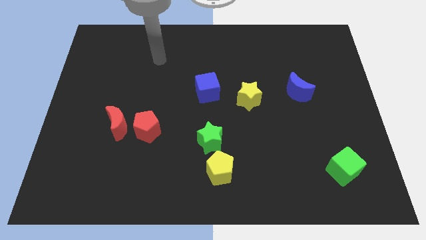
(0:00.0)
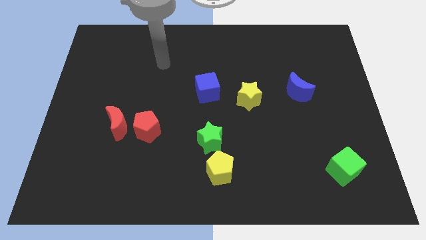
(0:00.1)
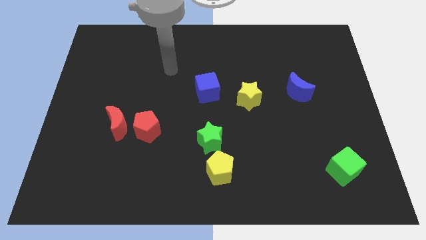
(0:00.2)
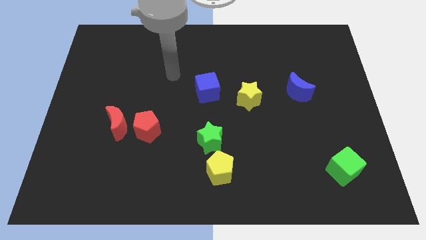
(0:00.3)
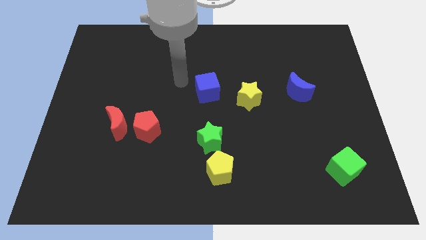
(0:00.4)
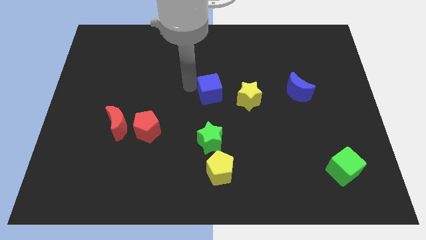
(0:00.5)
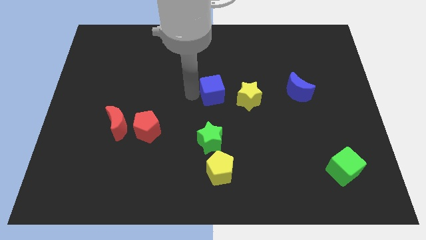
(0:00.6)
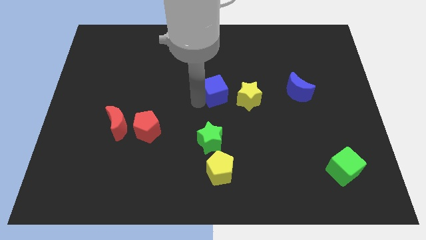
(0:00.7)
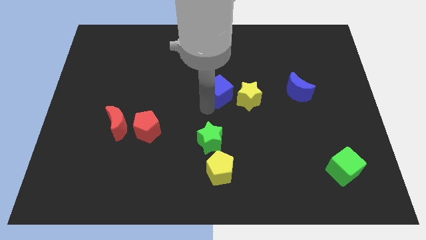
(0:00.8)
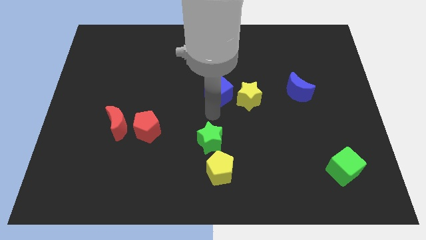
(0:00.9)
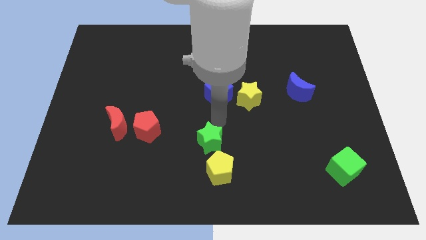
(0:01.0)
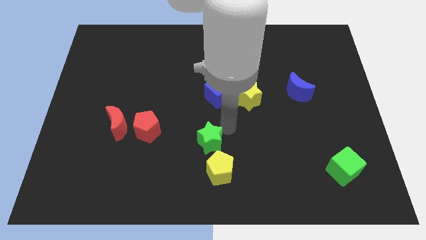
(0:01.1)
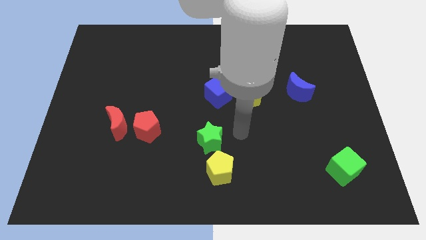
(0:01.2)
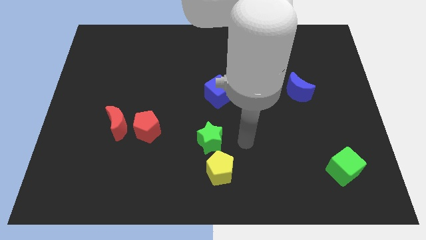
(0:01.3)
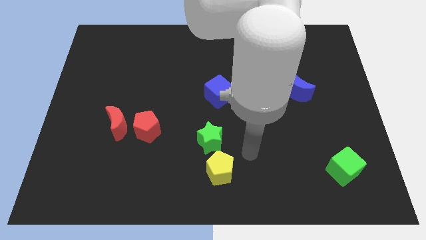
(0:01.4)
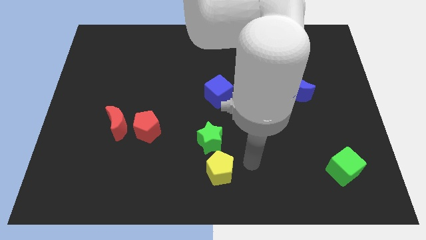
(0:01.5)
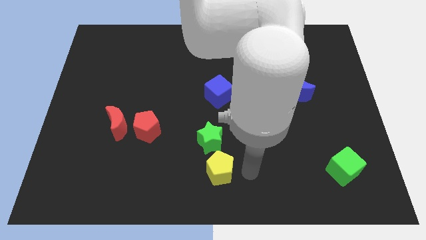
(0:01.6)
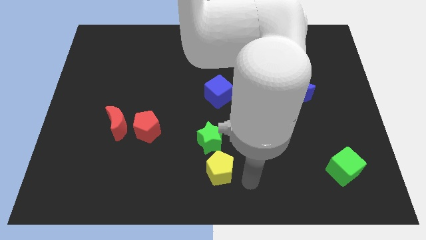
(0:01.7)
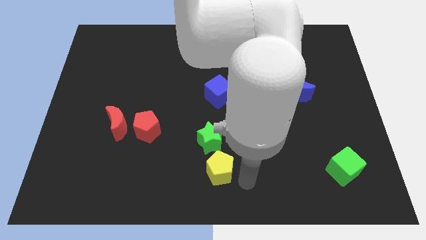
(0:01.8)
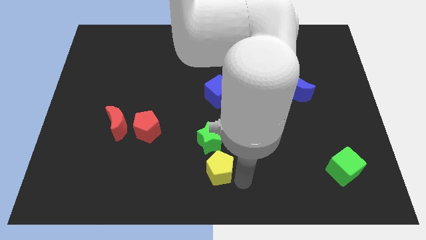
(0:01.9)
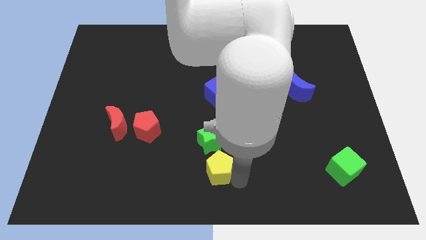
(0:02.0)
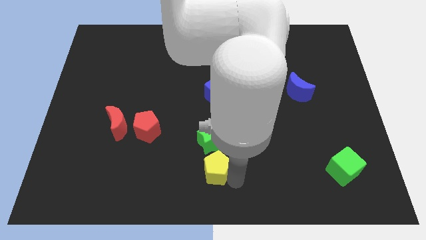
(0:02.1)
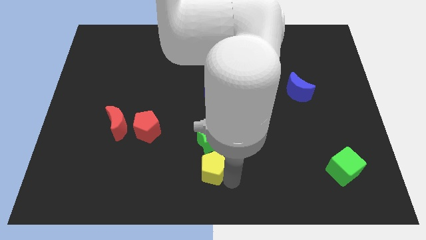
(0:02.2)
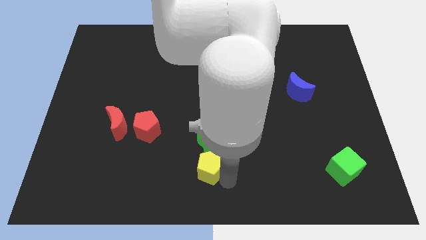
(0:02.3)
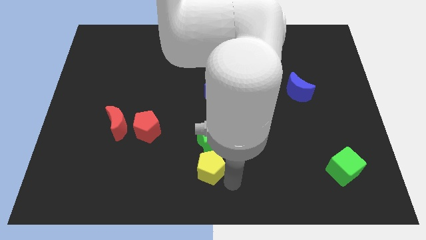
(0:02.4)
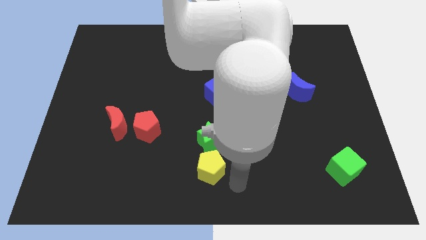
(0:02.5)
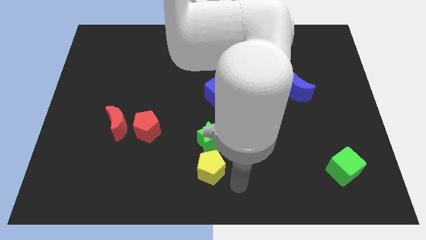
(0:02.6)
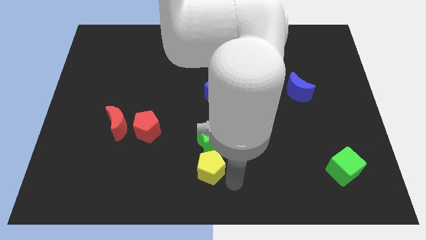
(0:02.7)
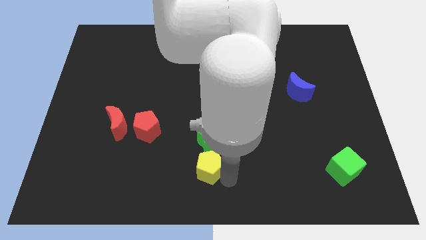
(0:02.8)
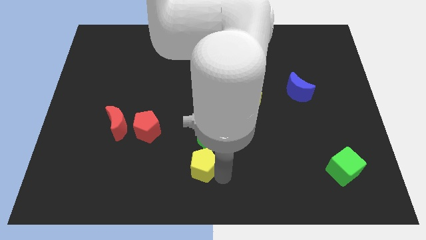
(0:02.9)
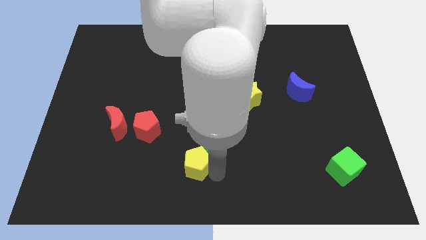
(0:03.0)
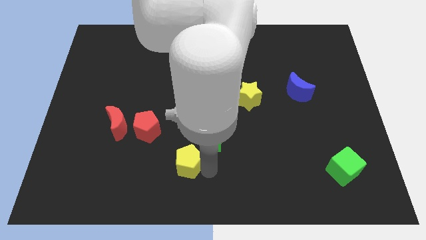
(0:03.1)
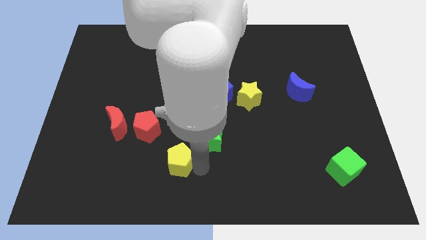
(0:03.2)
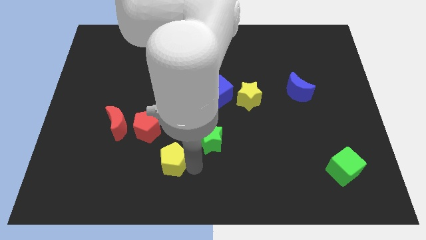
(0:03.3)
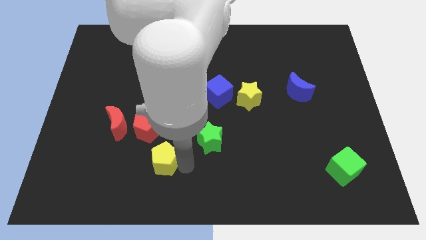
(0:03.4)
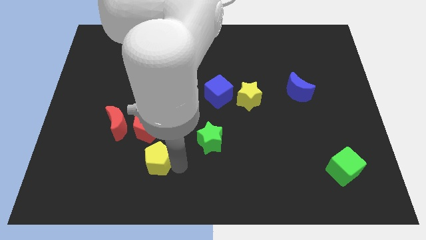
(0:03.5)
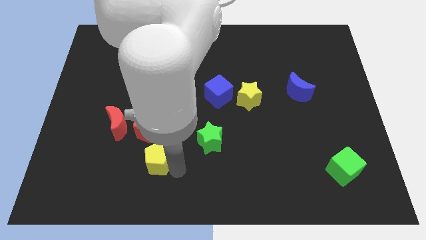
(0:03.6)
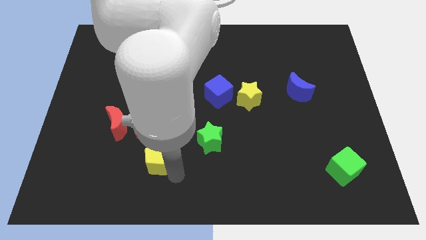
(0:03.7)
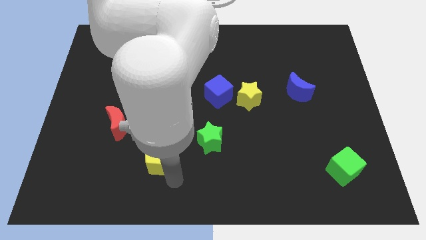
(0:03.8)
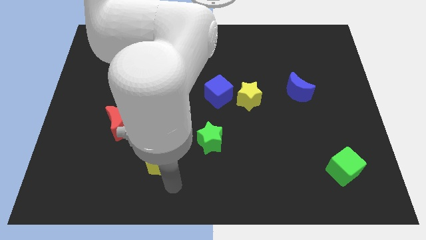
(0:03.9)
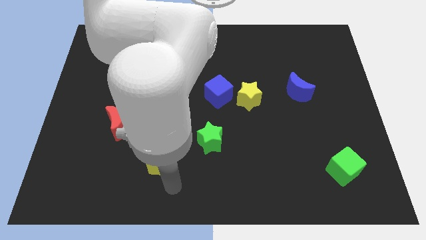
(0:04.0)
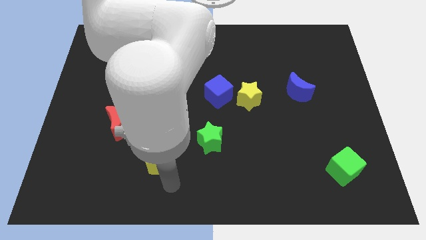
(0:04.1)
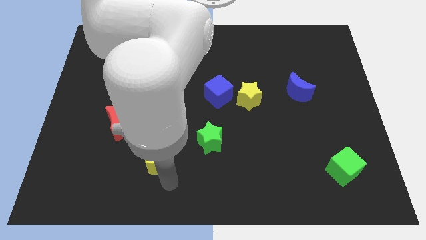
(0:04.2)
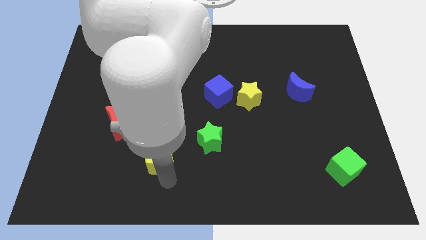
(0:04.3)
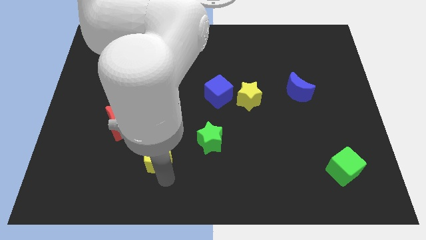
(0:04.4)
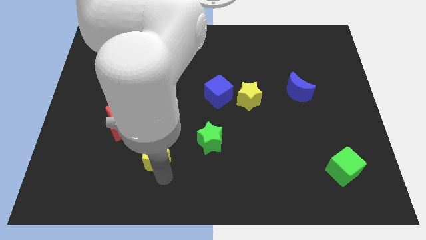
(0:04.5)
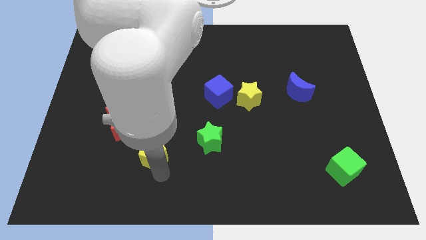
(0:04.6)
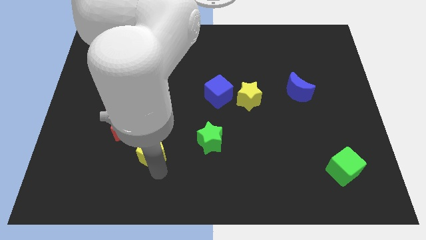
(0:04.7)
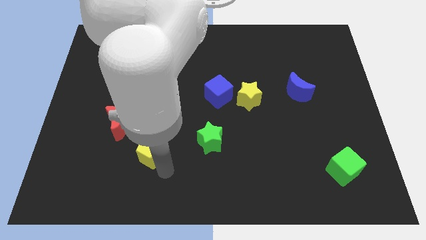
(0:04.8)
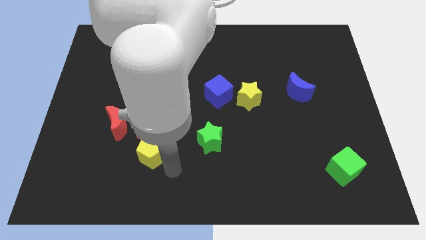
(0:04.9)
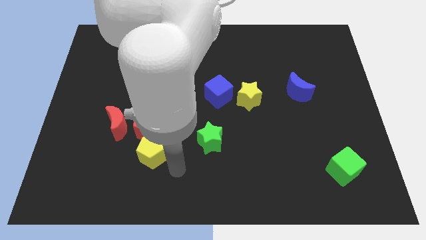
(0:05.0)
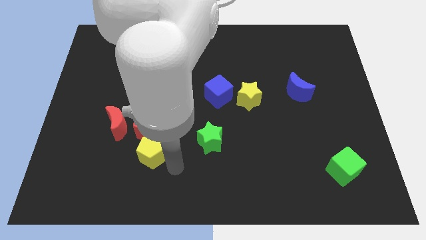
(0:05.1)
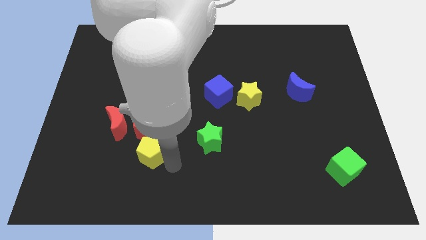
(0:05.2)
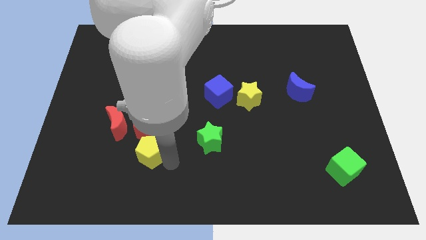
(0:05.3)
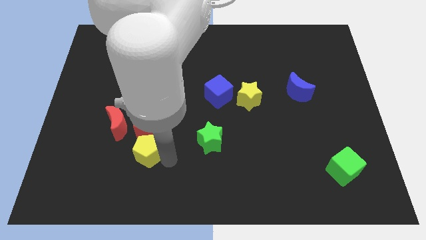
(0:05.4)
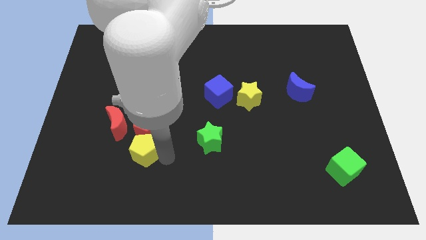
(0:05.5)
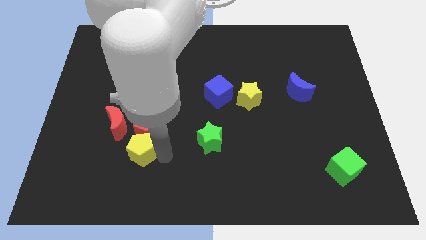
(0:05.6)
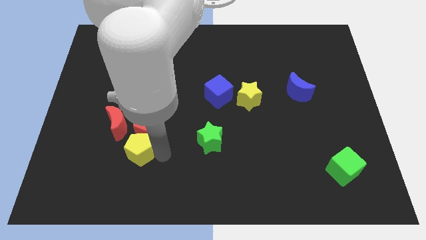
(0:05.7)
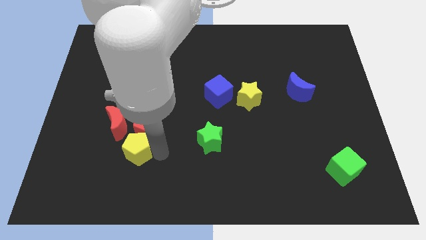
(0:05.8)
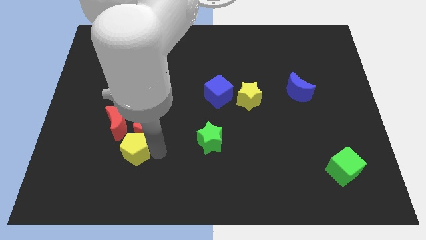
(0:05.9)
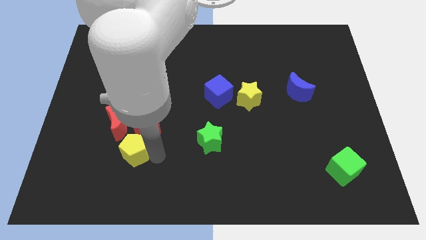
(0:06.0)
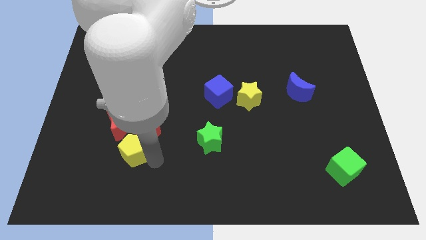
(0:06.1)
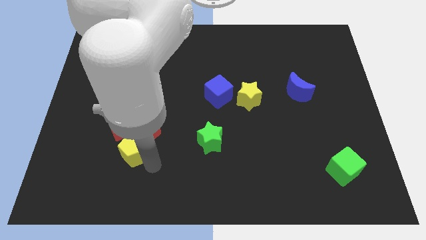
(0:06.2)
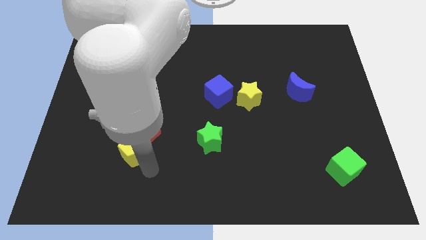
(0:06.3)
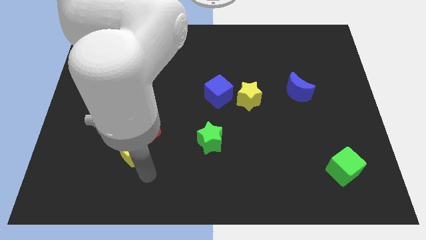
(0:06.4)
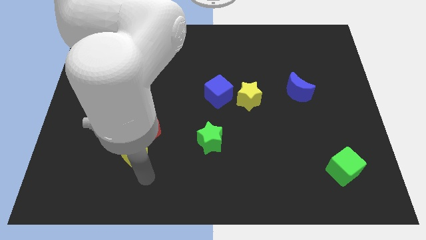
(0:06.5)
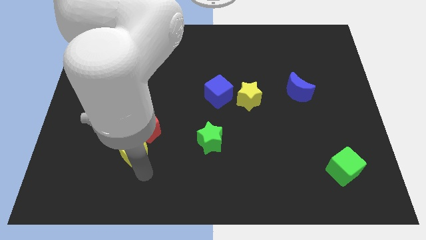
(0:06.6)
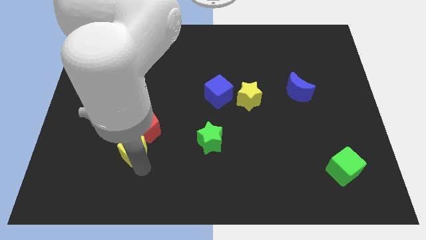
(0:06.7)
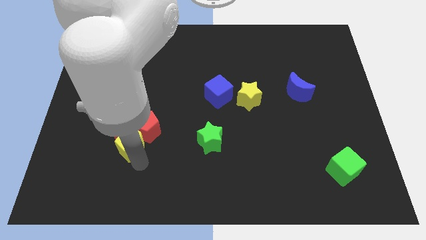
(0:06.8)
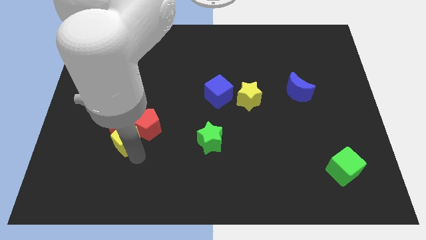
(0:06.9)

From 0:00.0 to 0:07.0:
slide the yellow pentagon close to the red moon
